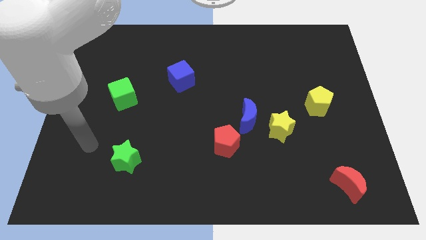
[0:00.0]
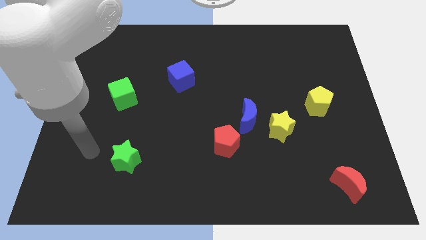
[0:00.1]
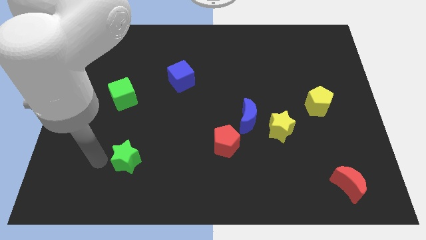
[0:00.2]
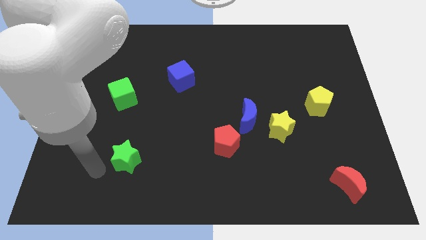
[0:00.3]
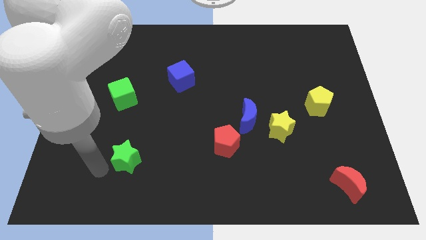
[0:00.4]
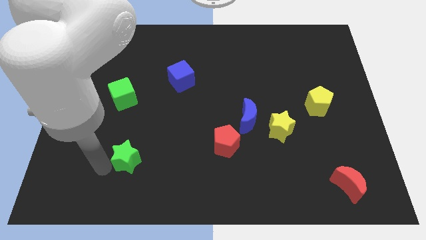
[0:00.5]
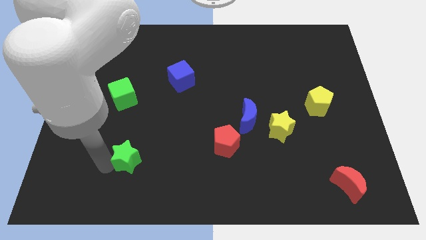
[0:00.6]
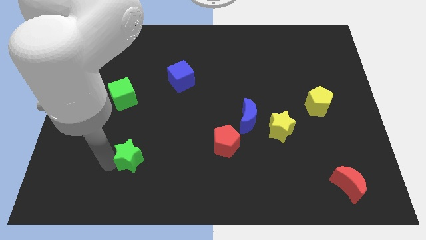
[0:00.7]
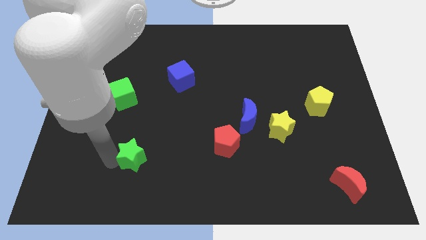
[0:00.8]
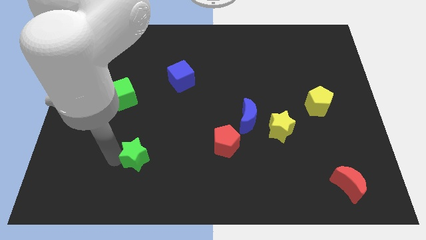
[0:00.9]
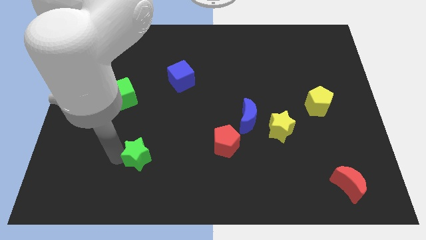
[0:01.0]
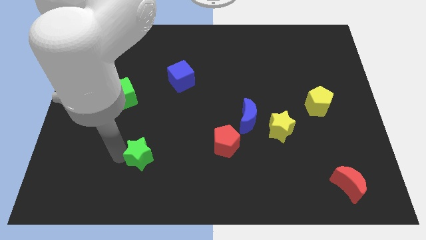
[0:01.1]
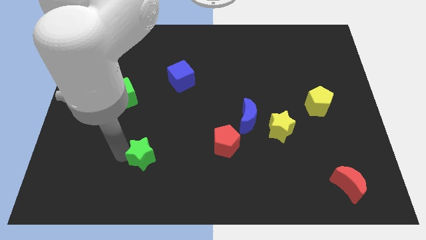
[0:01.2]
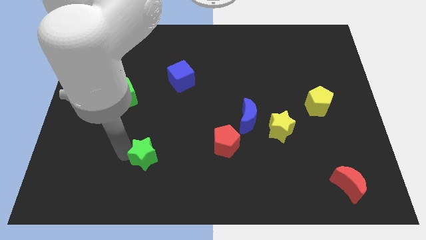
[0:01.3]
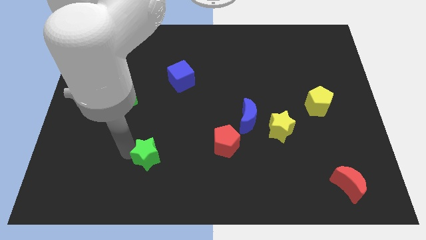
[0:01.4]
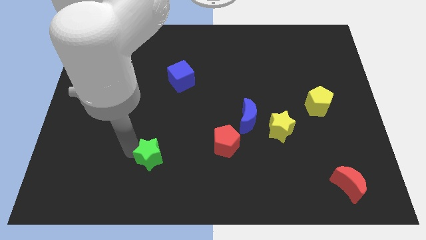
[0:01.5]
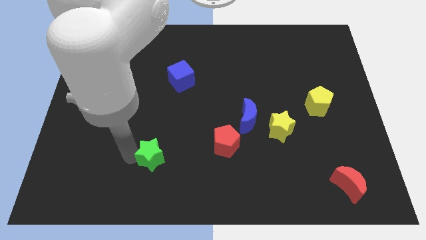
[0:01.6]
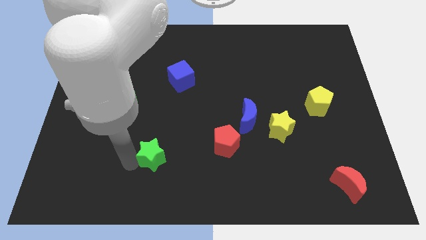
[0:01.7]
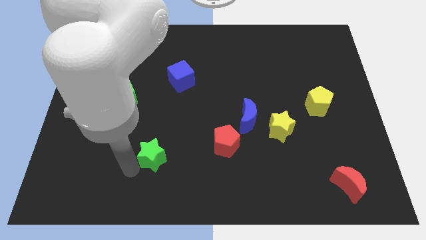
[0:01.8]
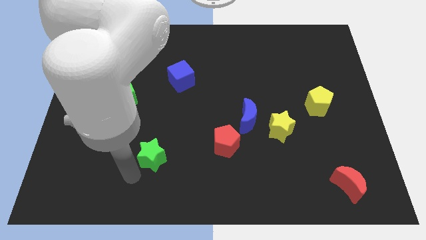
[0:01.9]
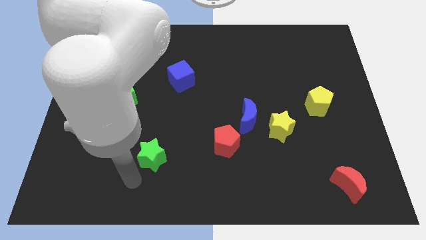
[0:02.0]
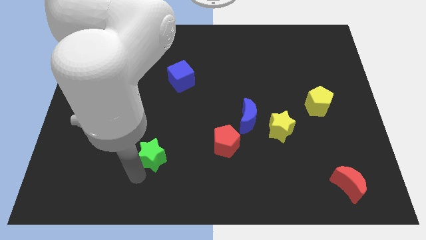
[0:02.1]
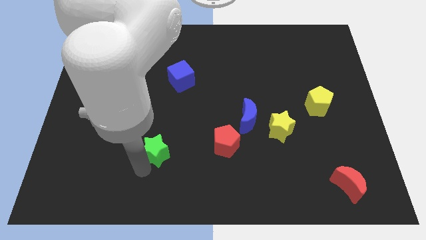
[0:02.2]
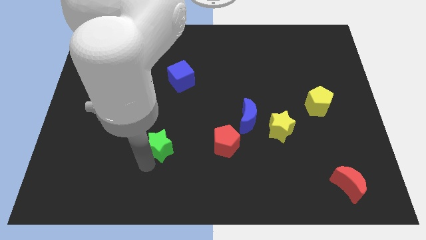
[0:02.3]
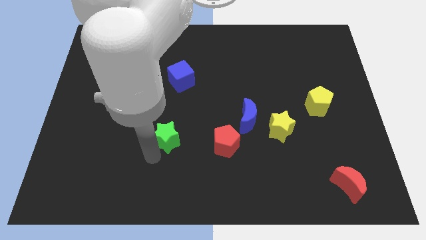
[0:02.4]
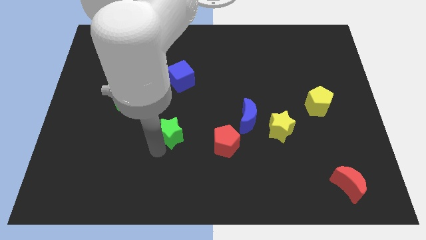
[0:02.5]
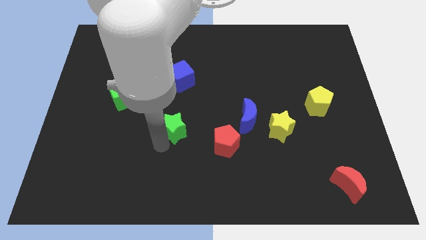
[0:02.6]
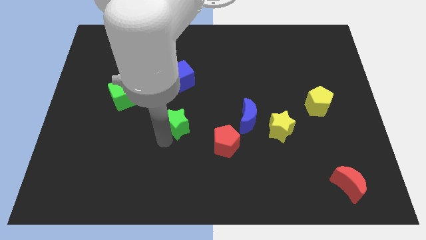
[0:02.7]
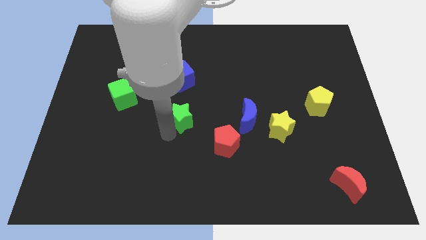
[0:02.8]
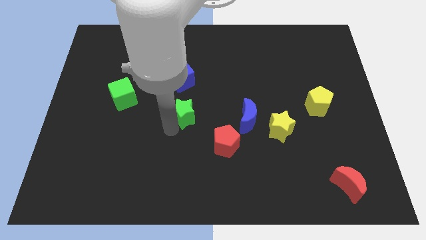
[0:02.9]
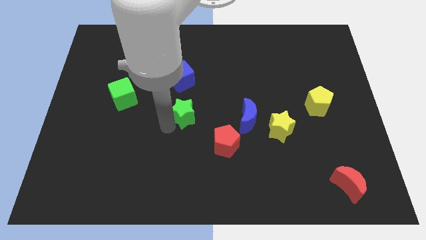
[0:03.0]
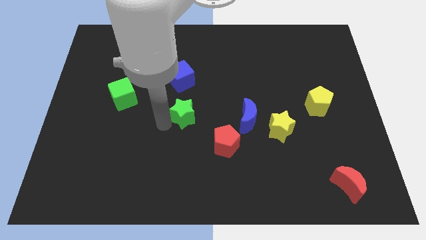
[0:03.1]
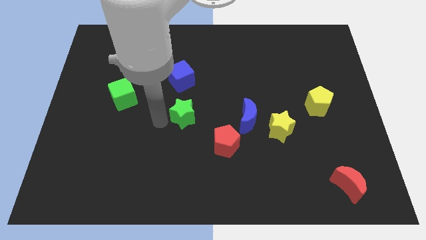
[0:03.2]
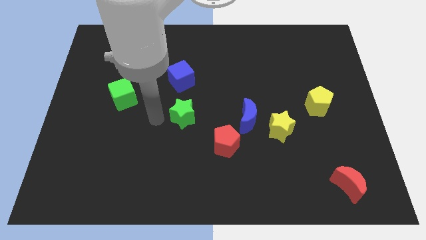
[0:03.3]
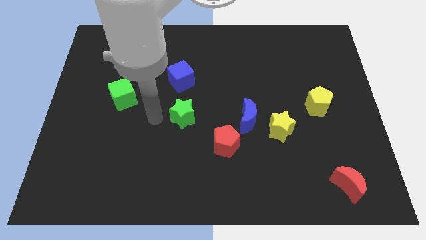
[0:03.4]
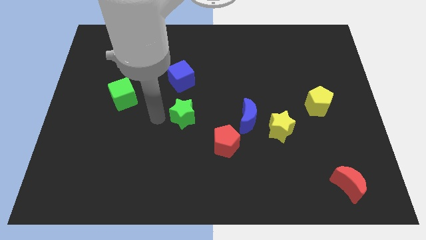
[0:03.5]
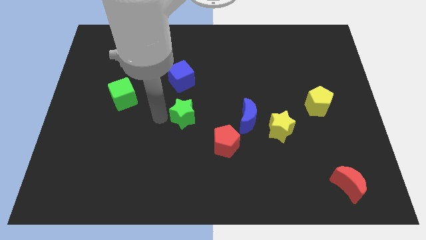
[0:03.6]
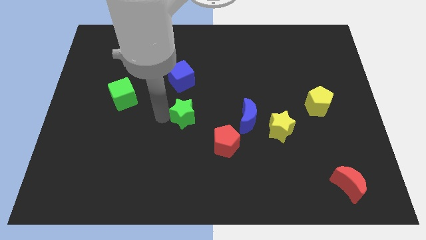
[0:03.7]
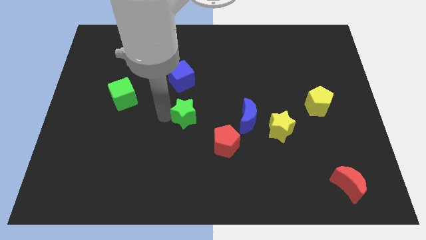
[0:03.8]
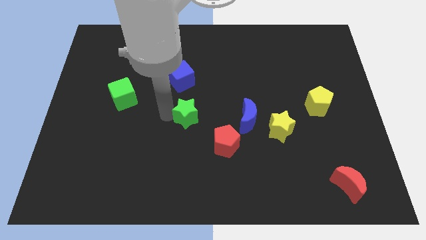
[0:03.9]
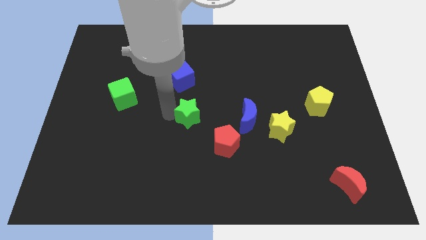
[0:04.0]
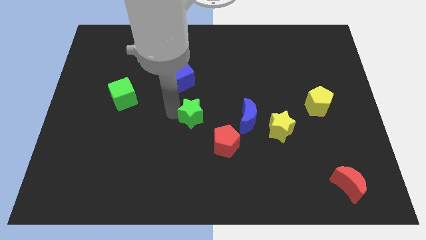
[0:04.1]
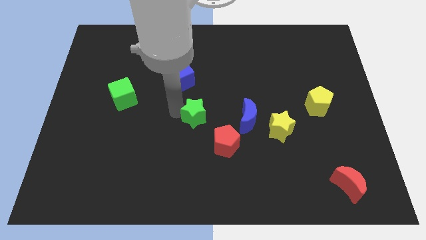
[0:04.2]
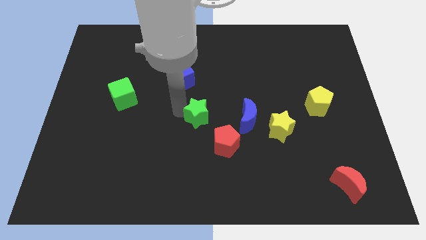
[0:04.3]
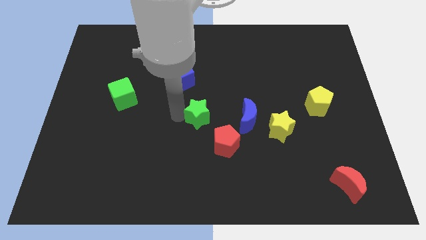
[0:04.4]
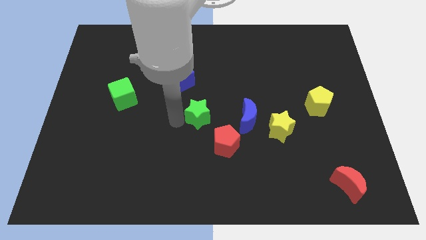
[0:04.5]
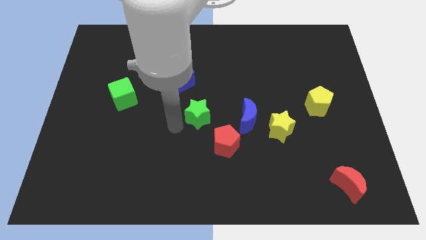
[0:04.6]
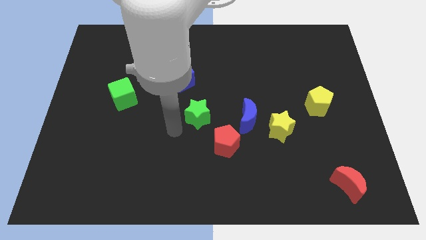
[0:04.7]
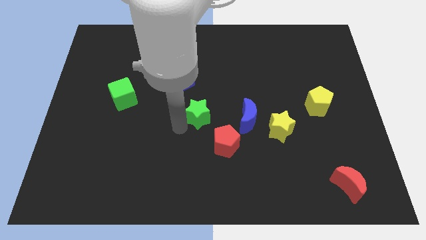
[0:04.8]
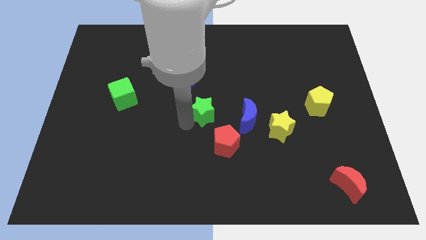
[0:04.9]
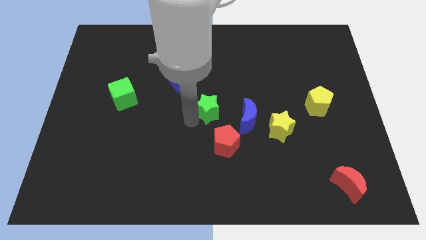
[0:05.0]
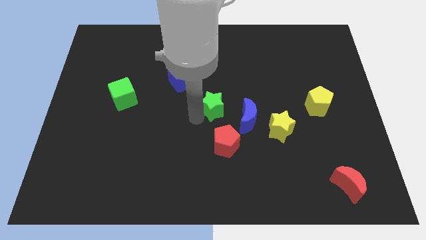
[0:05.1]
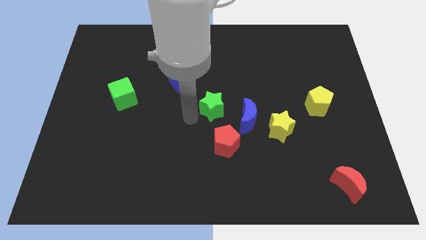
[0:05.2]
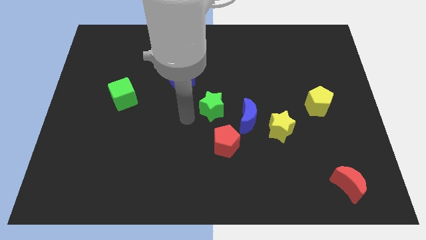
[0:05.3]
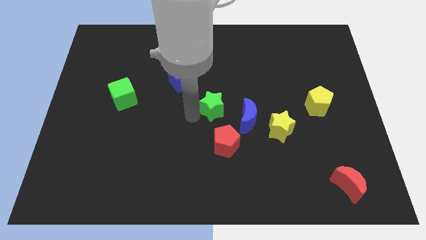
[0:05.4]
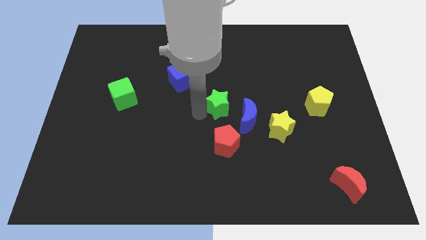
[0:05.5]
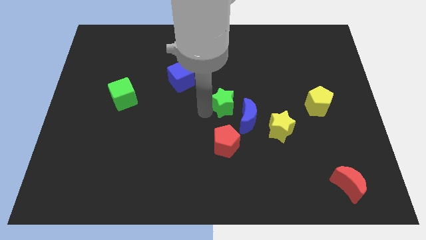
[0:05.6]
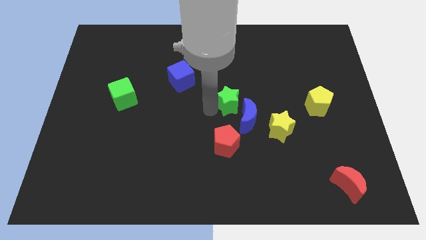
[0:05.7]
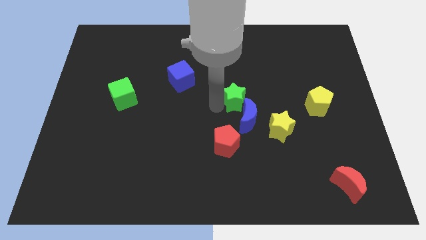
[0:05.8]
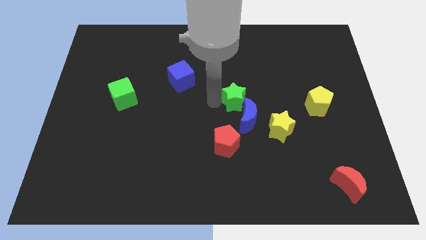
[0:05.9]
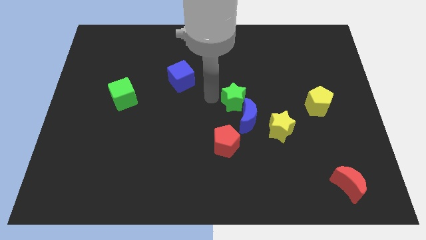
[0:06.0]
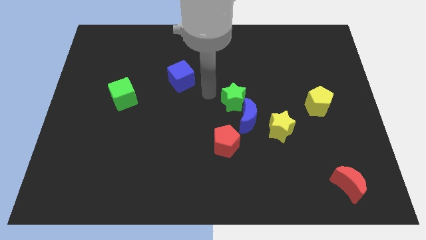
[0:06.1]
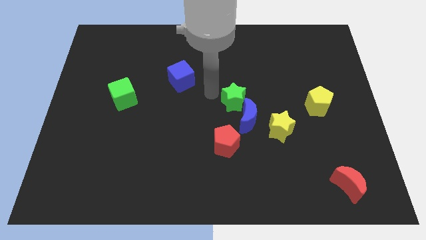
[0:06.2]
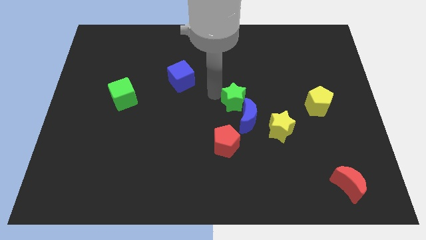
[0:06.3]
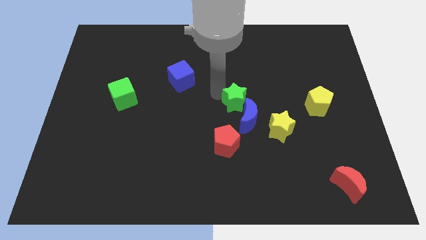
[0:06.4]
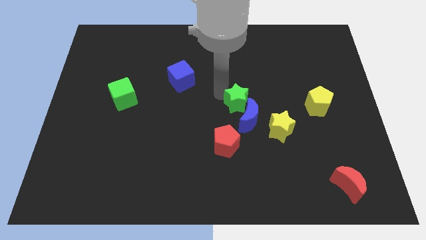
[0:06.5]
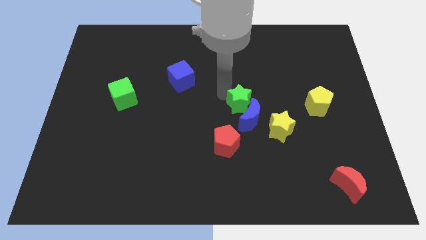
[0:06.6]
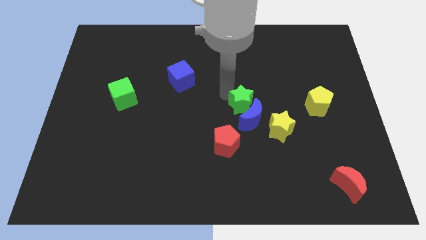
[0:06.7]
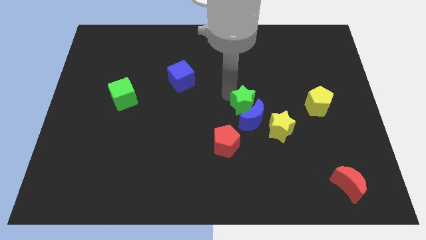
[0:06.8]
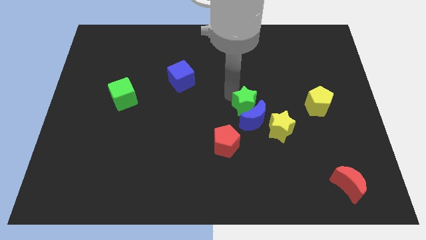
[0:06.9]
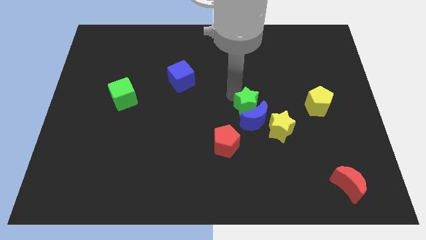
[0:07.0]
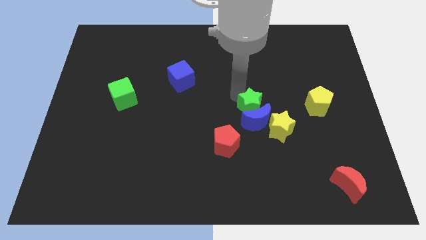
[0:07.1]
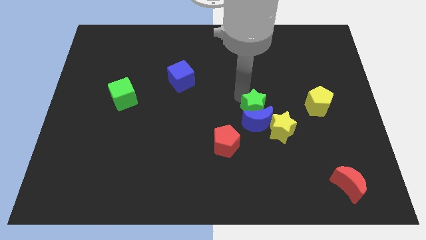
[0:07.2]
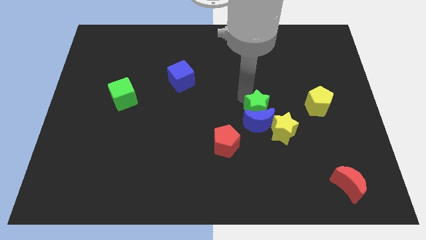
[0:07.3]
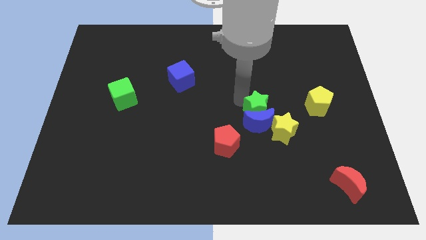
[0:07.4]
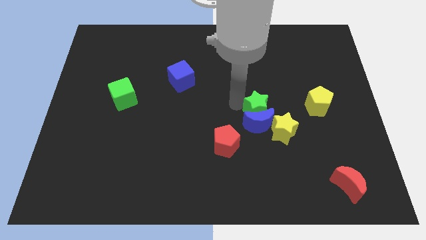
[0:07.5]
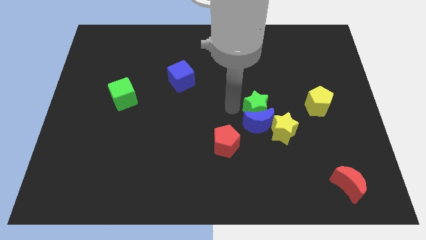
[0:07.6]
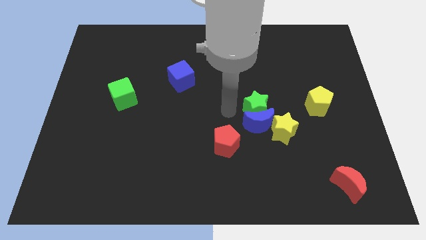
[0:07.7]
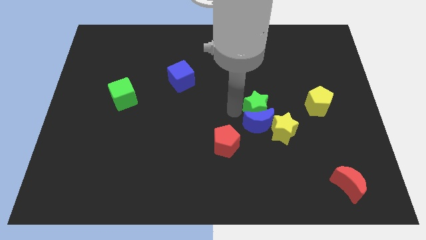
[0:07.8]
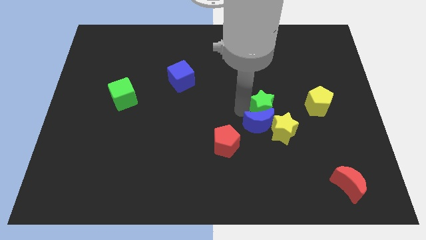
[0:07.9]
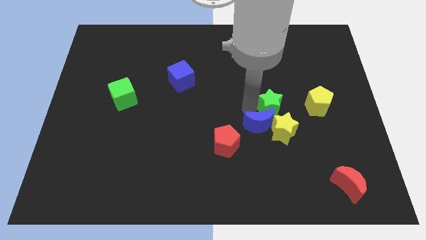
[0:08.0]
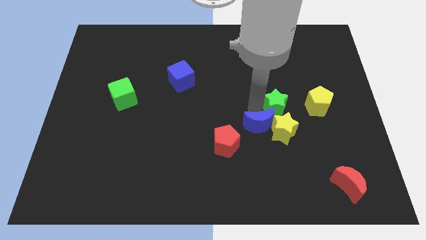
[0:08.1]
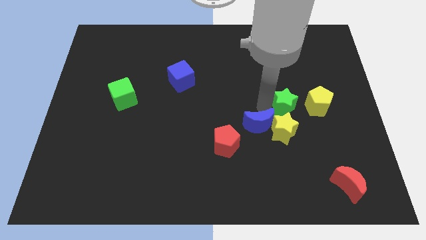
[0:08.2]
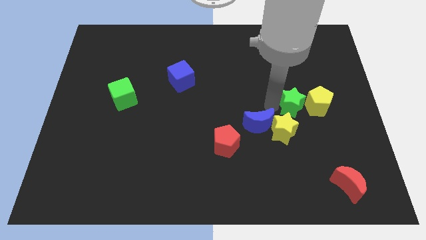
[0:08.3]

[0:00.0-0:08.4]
put the green star close to the yellow pentagon
